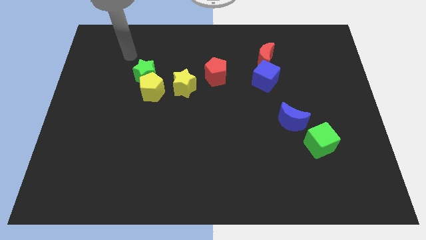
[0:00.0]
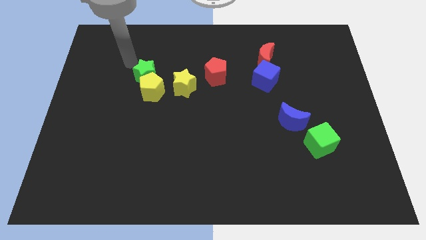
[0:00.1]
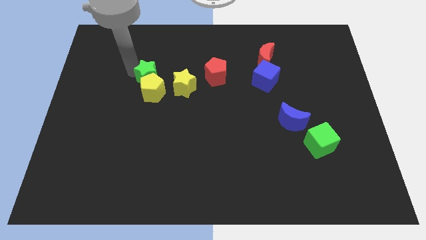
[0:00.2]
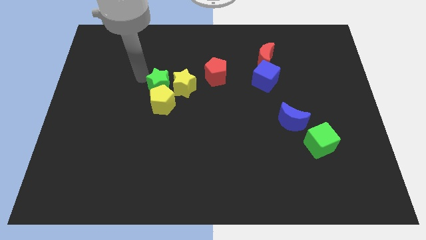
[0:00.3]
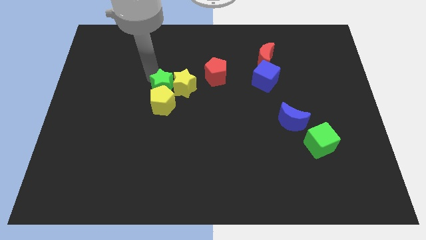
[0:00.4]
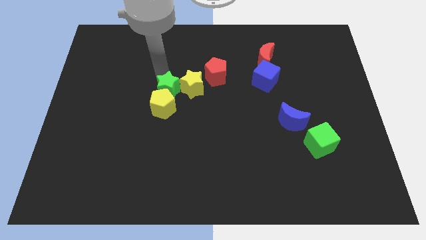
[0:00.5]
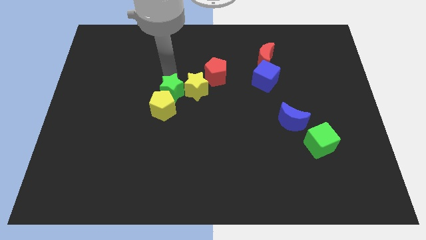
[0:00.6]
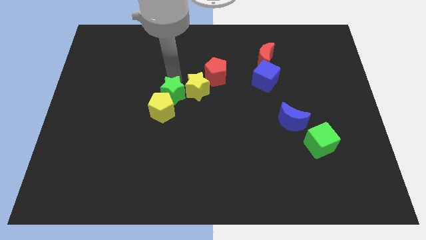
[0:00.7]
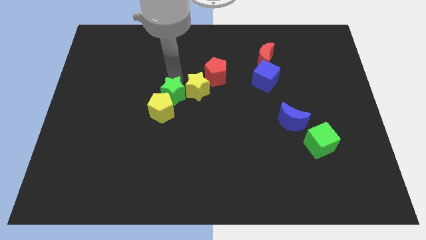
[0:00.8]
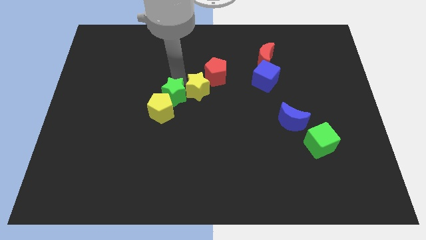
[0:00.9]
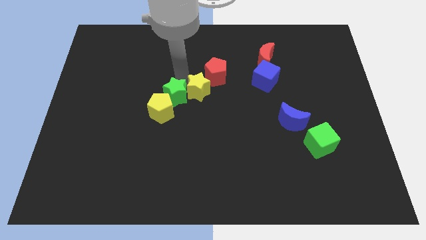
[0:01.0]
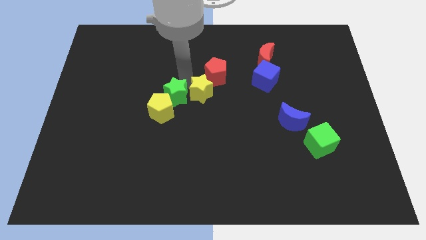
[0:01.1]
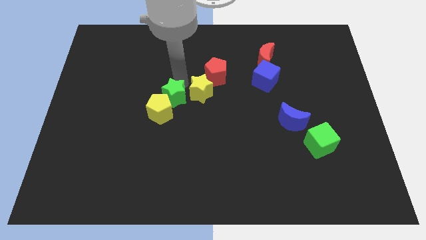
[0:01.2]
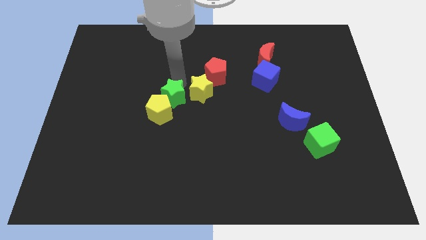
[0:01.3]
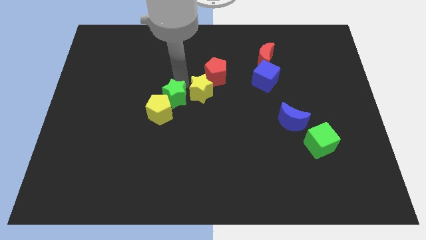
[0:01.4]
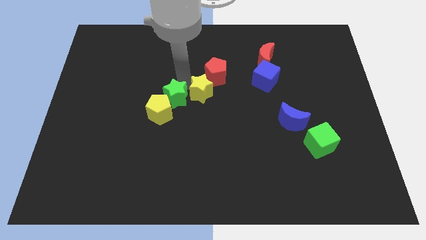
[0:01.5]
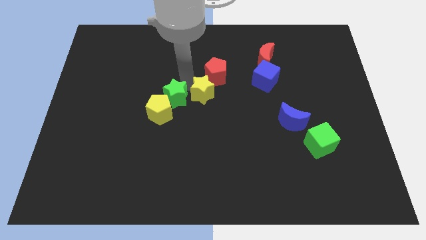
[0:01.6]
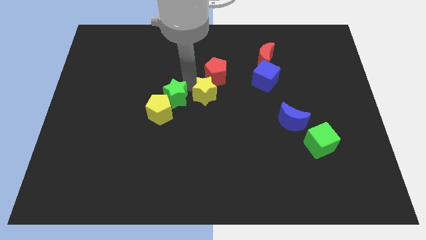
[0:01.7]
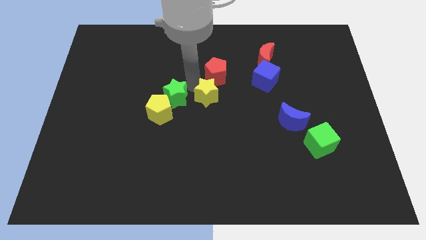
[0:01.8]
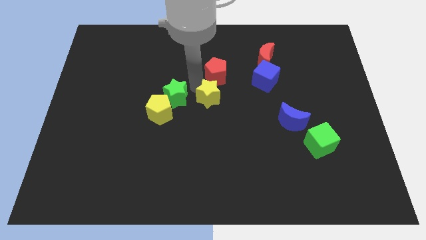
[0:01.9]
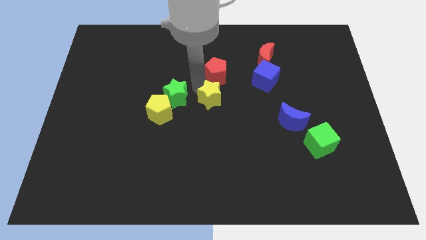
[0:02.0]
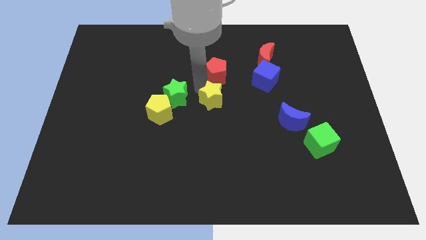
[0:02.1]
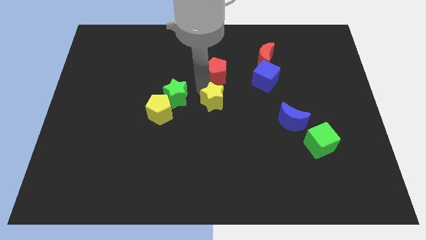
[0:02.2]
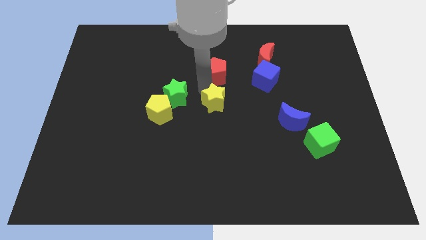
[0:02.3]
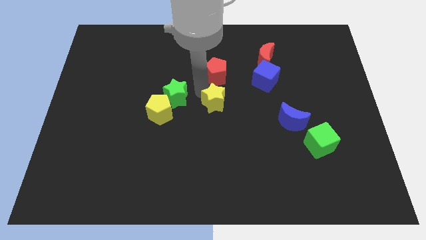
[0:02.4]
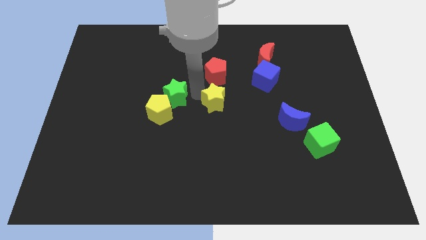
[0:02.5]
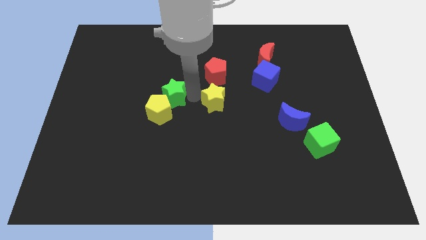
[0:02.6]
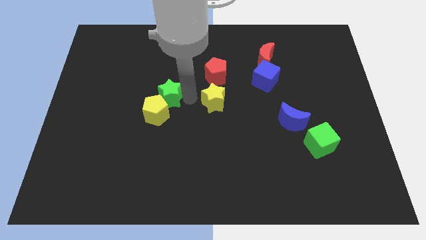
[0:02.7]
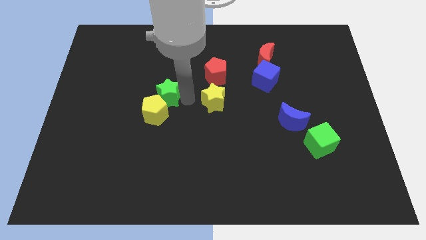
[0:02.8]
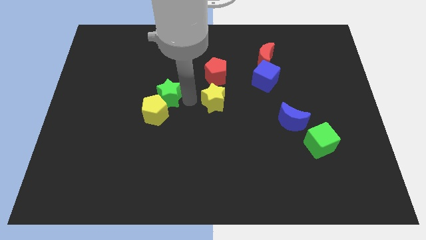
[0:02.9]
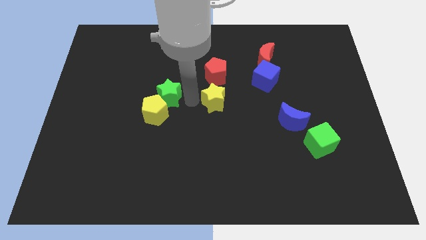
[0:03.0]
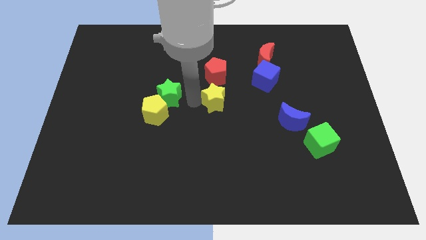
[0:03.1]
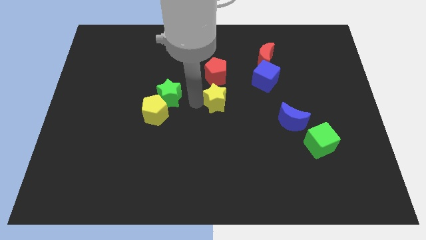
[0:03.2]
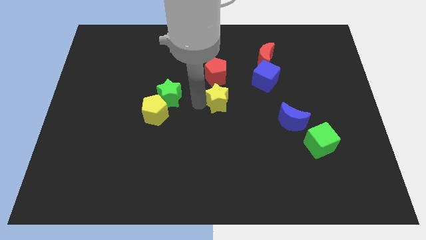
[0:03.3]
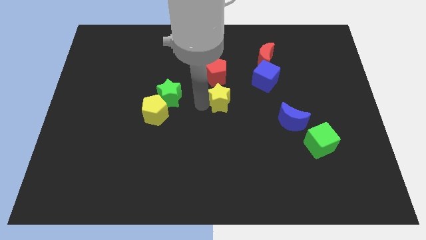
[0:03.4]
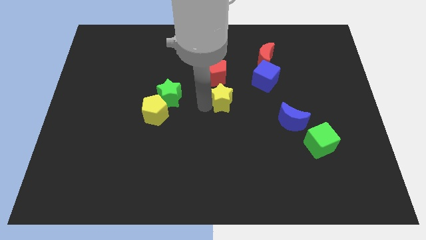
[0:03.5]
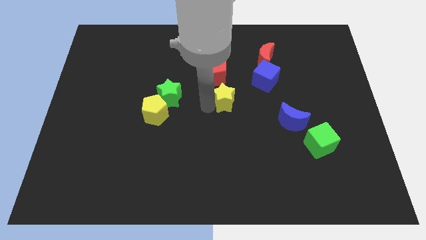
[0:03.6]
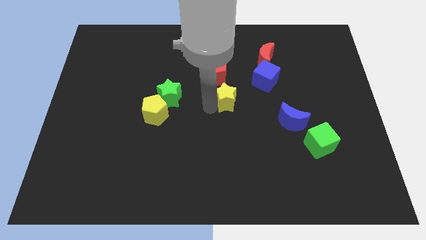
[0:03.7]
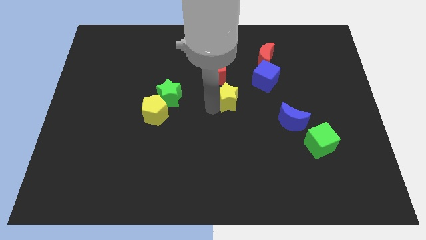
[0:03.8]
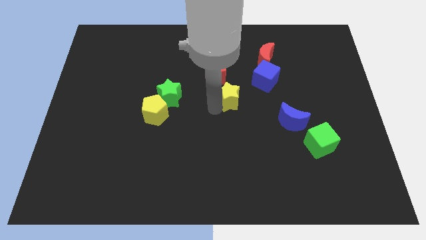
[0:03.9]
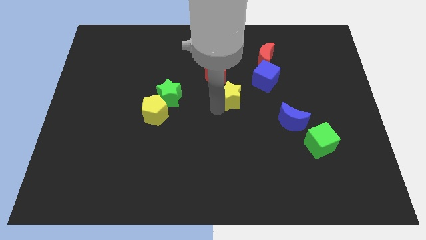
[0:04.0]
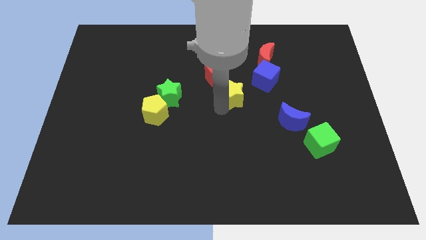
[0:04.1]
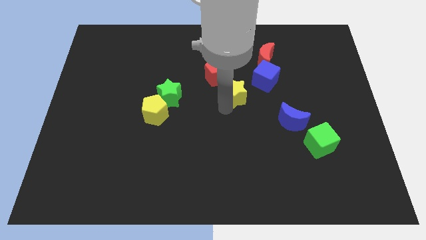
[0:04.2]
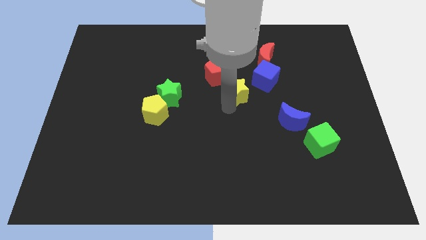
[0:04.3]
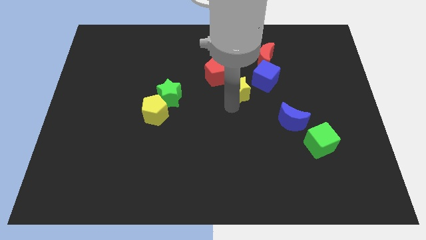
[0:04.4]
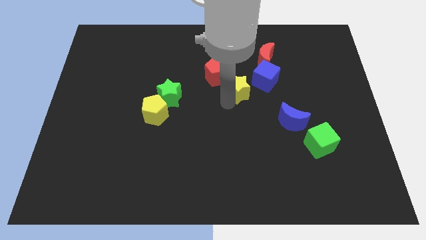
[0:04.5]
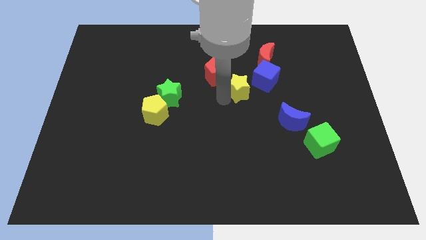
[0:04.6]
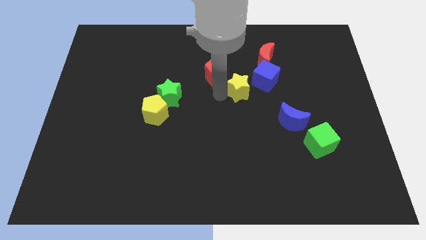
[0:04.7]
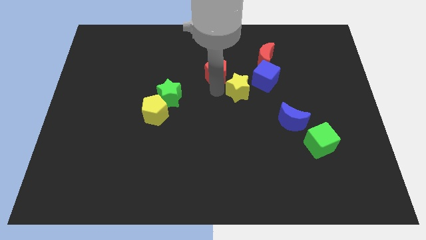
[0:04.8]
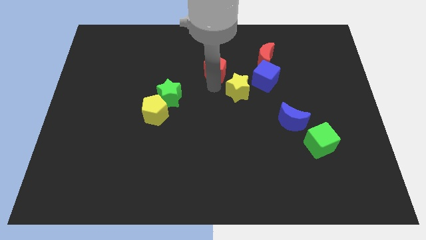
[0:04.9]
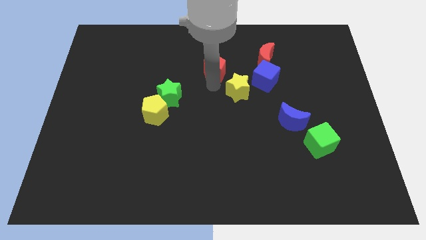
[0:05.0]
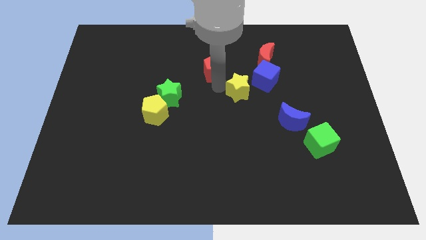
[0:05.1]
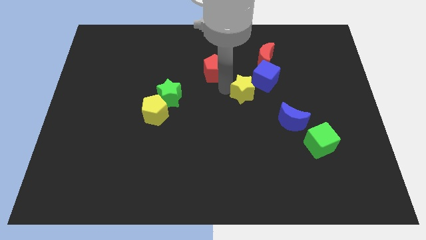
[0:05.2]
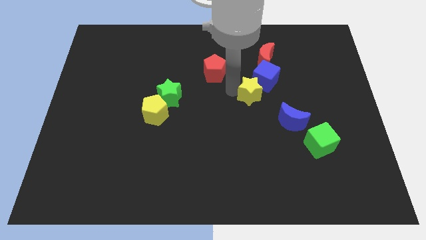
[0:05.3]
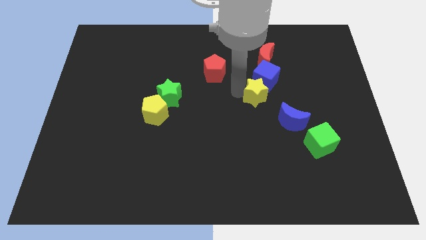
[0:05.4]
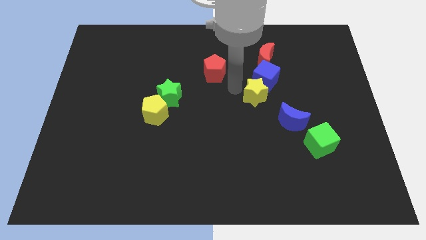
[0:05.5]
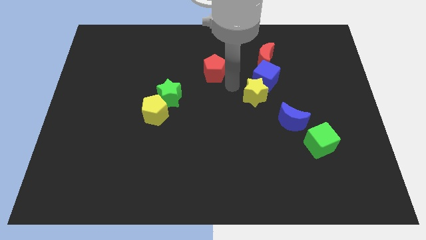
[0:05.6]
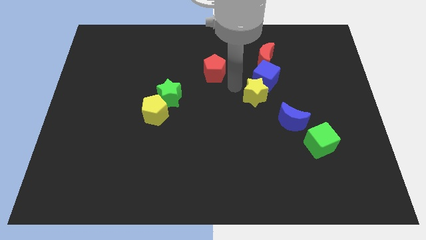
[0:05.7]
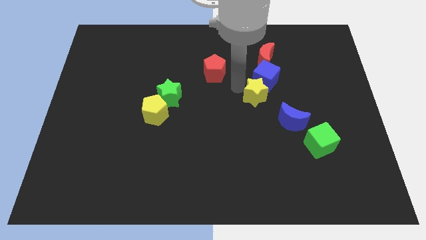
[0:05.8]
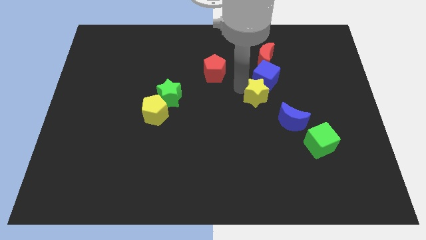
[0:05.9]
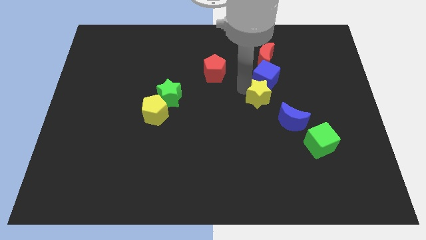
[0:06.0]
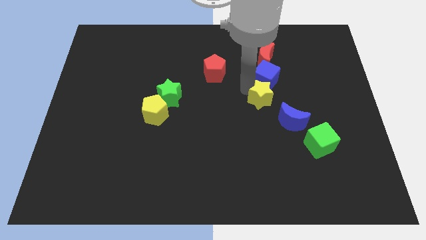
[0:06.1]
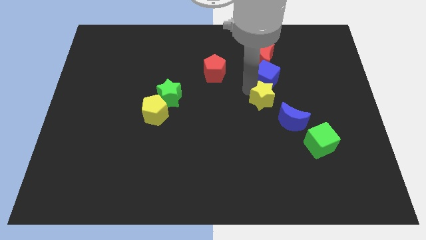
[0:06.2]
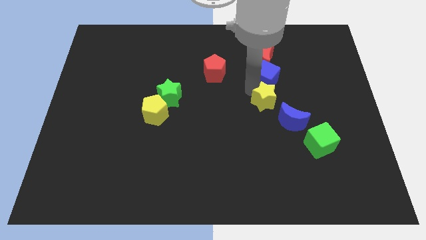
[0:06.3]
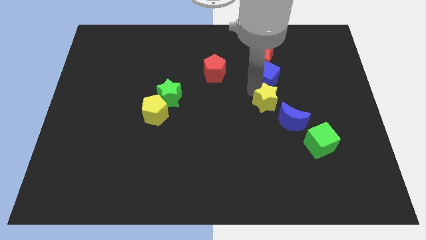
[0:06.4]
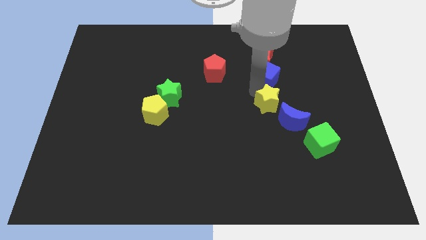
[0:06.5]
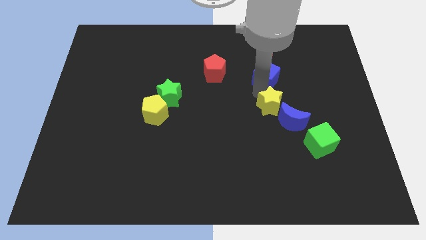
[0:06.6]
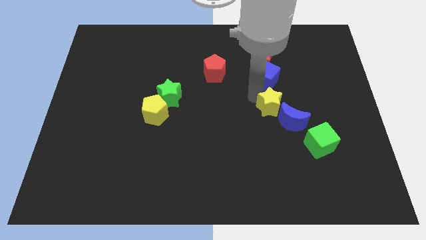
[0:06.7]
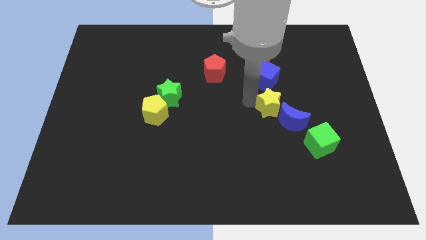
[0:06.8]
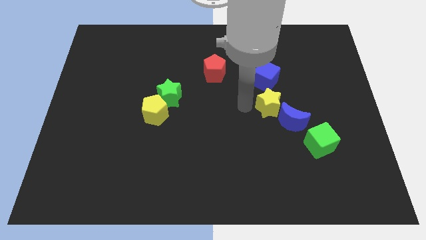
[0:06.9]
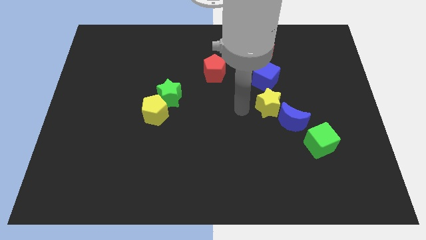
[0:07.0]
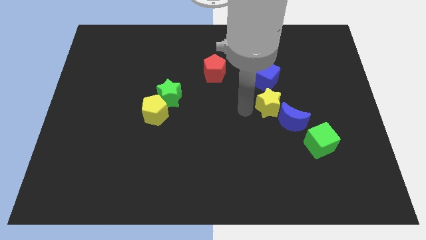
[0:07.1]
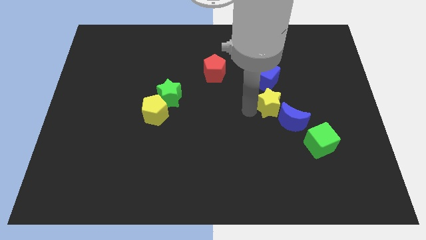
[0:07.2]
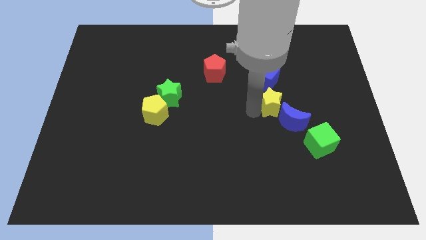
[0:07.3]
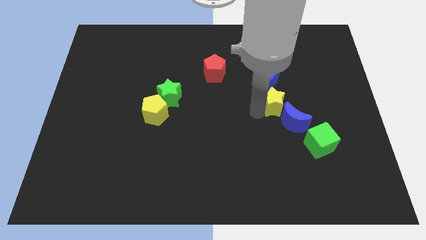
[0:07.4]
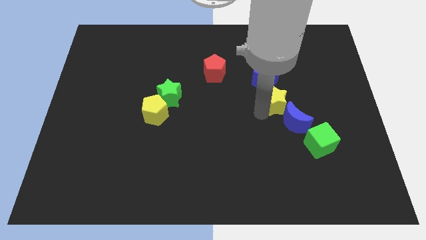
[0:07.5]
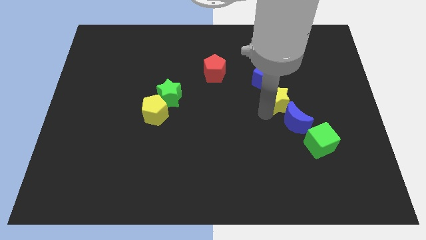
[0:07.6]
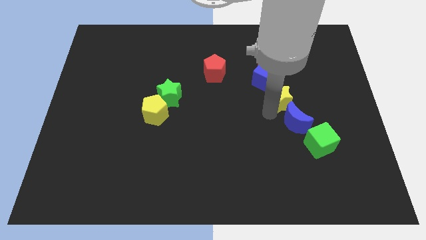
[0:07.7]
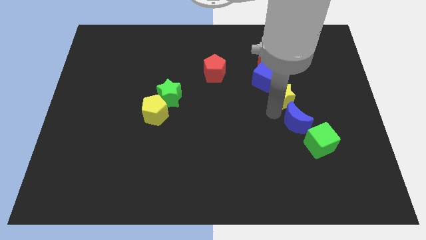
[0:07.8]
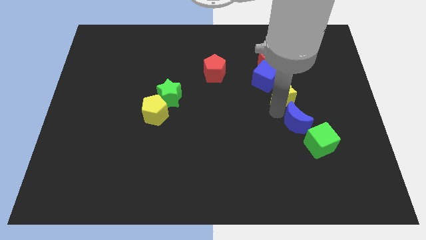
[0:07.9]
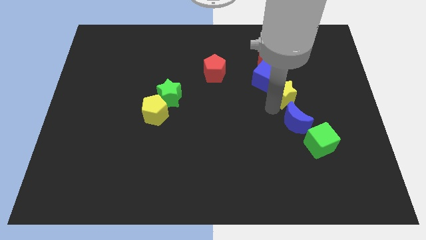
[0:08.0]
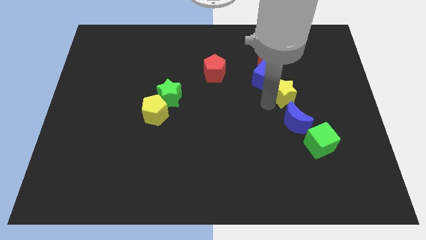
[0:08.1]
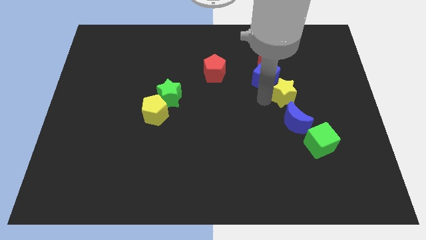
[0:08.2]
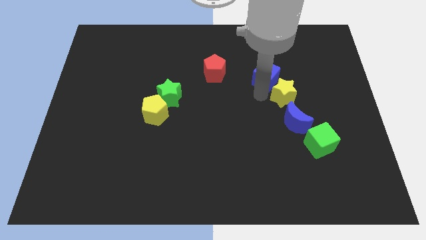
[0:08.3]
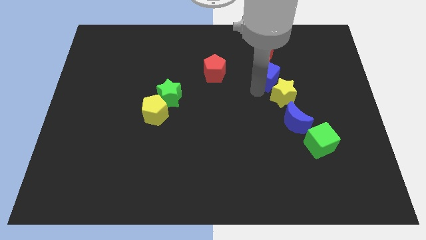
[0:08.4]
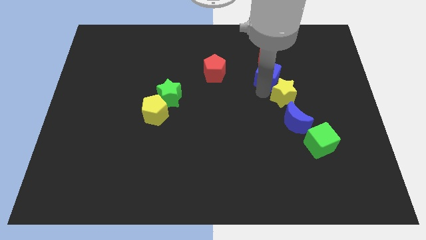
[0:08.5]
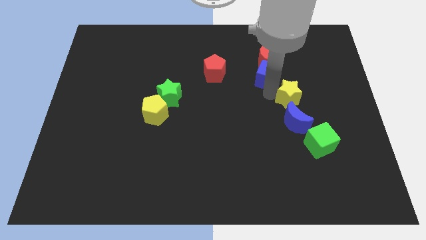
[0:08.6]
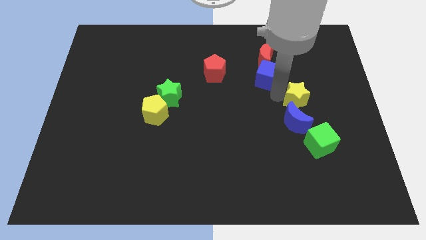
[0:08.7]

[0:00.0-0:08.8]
slide the yellow star diagonally up and to the right of the blue moon
